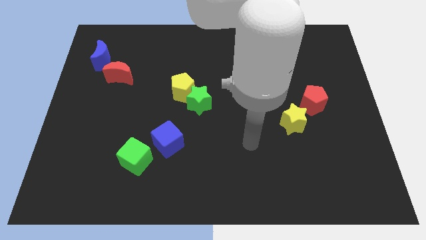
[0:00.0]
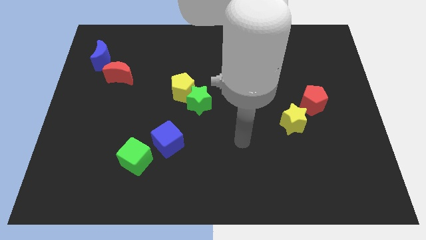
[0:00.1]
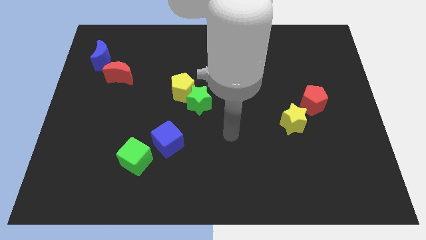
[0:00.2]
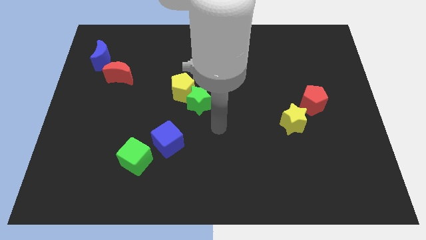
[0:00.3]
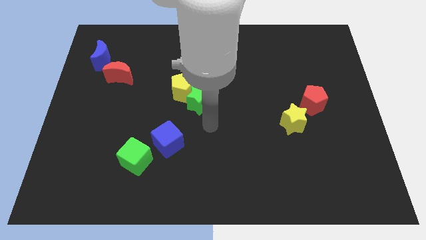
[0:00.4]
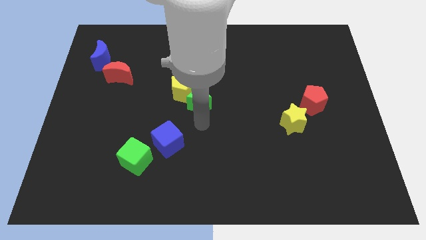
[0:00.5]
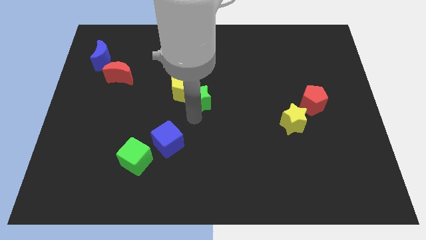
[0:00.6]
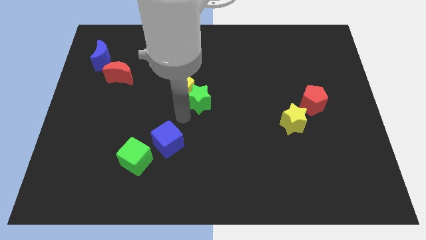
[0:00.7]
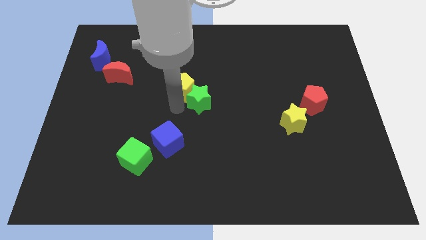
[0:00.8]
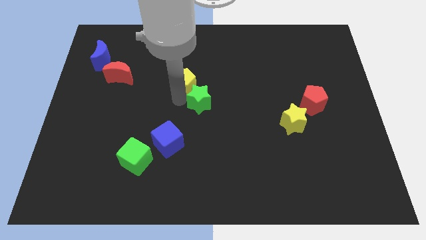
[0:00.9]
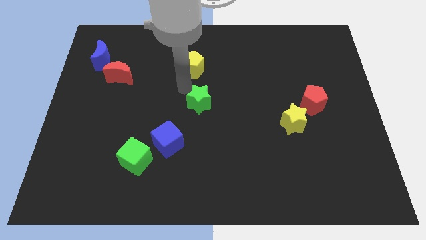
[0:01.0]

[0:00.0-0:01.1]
move the green star away from the yellow pentagon

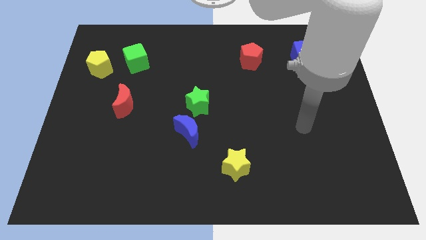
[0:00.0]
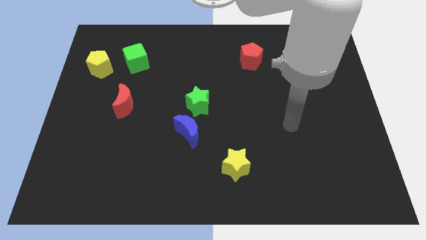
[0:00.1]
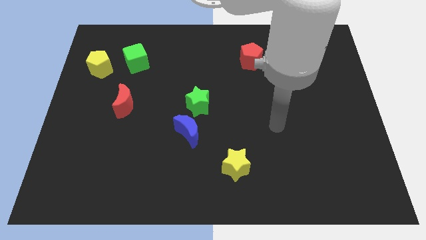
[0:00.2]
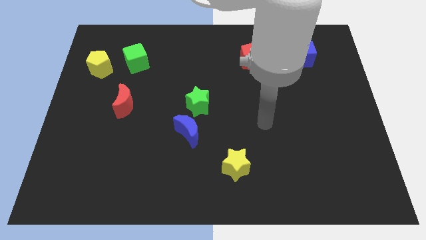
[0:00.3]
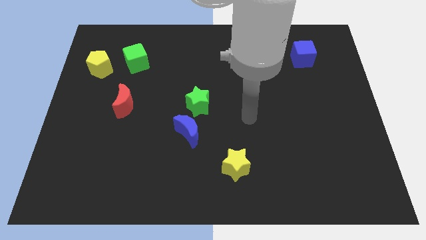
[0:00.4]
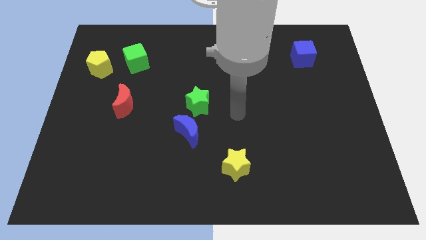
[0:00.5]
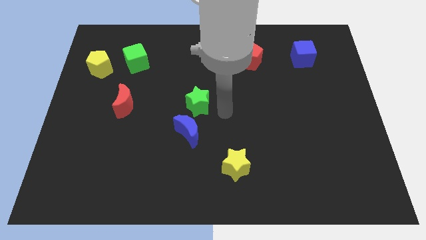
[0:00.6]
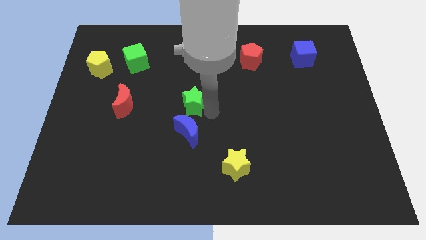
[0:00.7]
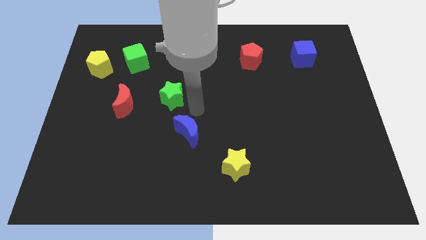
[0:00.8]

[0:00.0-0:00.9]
pull the blue moon apart from the green star

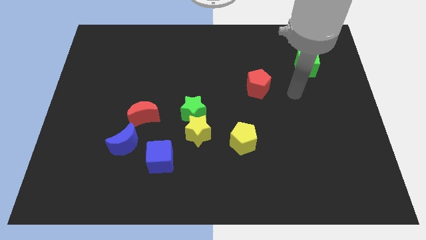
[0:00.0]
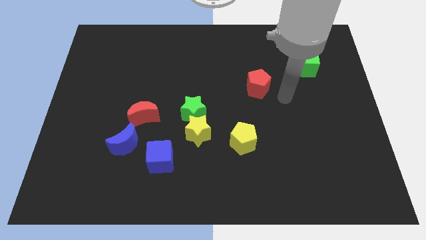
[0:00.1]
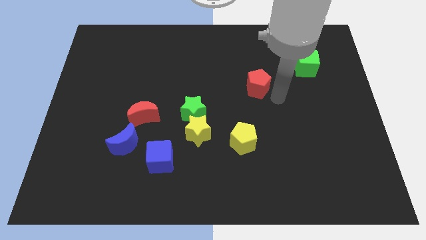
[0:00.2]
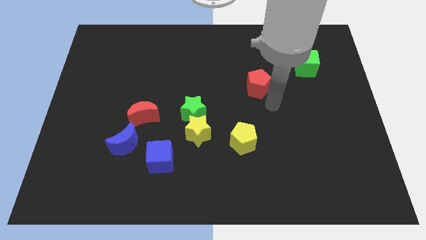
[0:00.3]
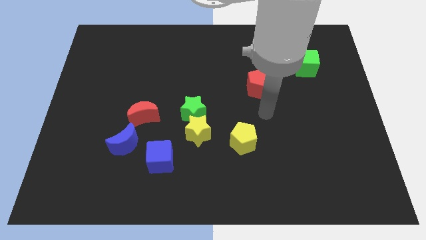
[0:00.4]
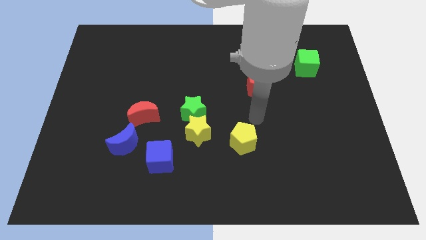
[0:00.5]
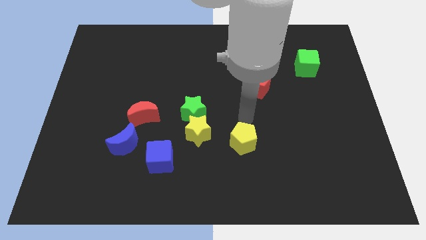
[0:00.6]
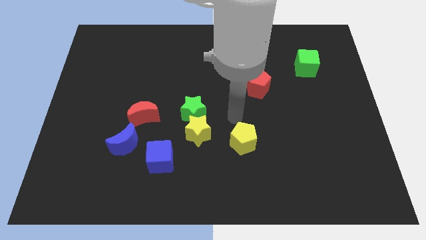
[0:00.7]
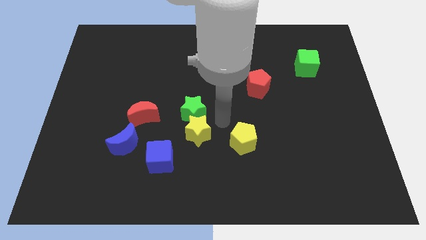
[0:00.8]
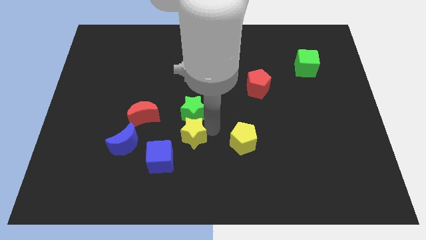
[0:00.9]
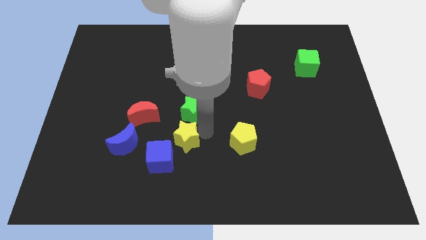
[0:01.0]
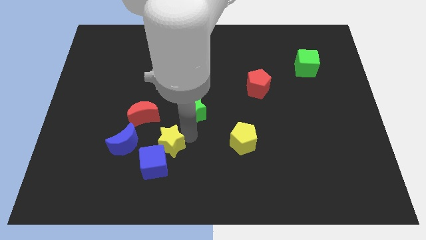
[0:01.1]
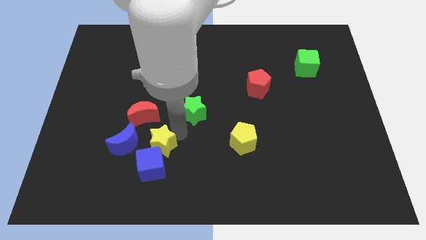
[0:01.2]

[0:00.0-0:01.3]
separate the green star from the yellow star

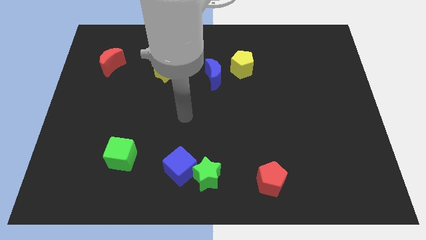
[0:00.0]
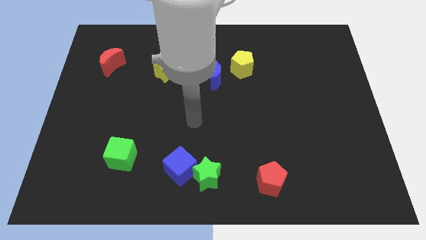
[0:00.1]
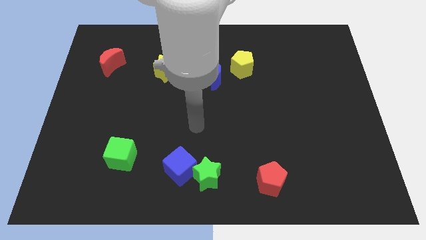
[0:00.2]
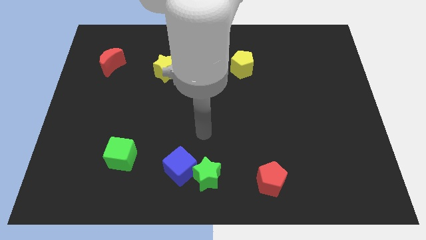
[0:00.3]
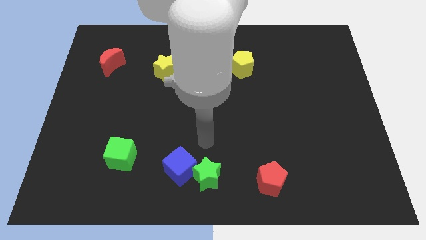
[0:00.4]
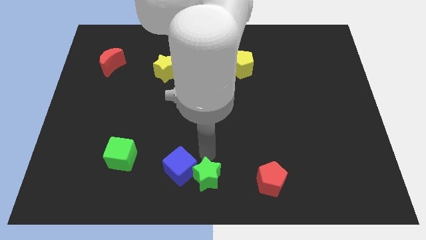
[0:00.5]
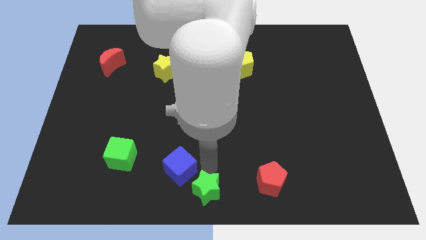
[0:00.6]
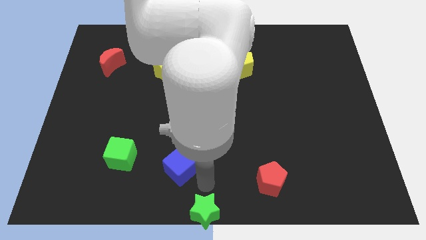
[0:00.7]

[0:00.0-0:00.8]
move the blue cube away from the green star

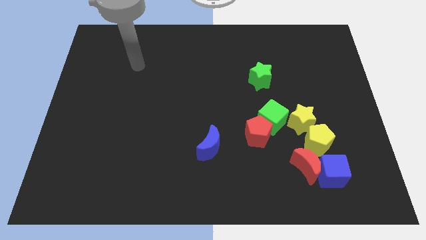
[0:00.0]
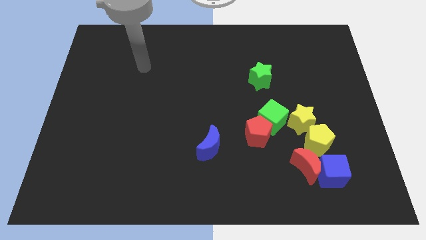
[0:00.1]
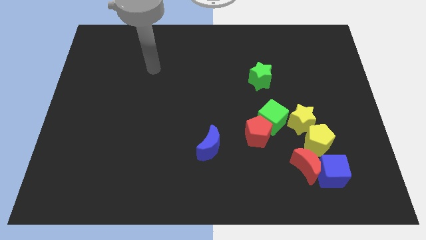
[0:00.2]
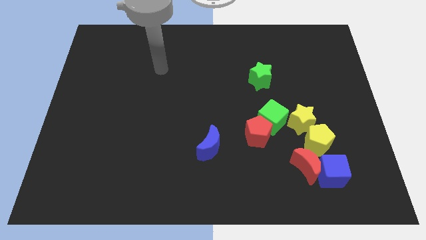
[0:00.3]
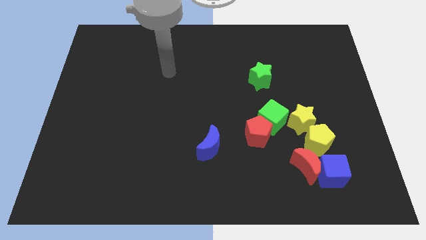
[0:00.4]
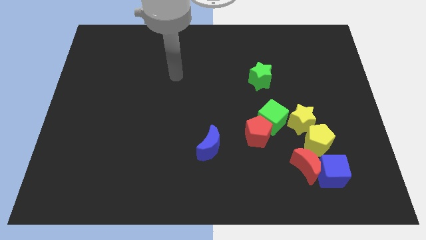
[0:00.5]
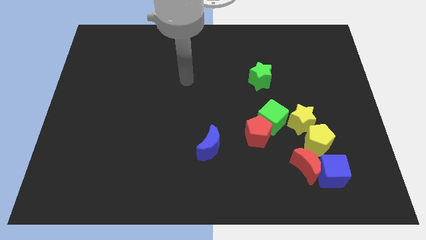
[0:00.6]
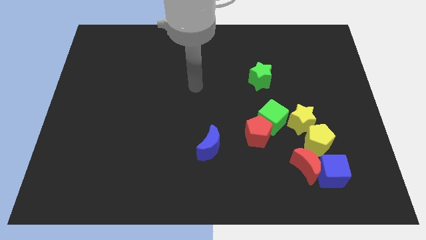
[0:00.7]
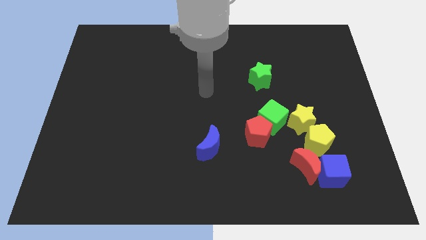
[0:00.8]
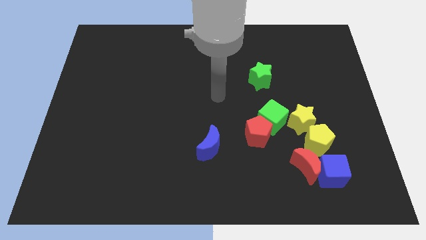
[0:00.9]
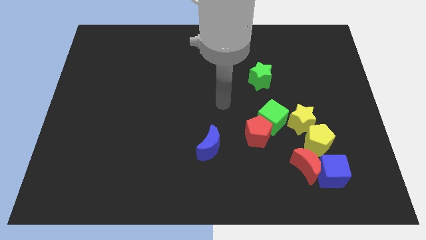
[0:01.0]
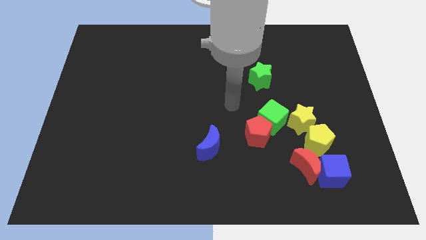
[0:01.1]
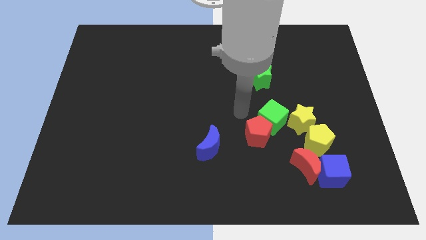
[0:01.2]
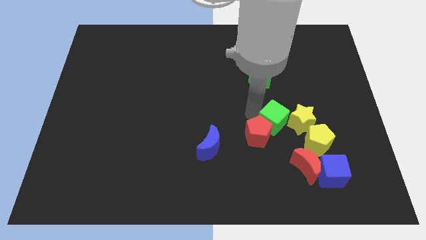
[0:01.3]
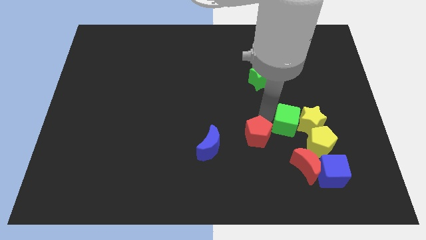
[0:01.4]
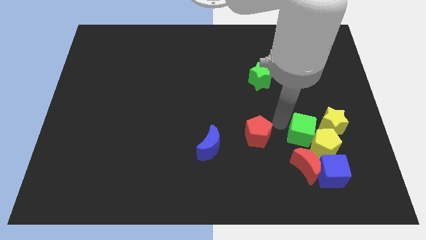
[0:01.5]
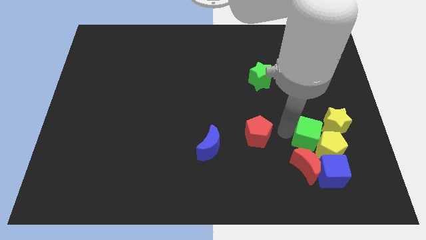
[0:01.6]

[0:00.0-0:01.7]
separate the red pentagon from the green cube

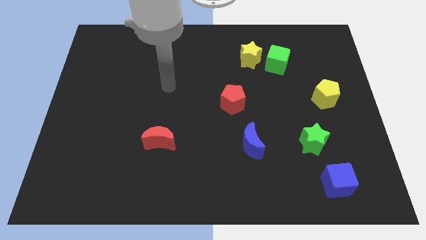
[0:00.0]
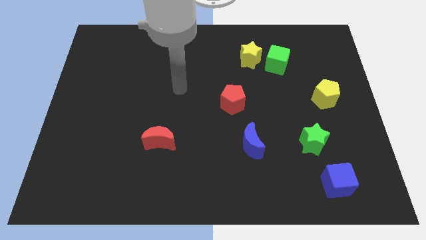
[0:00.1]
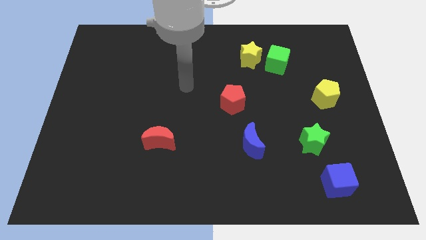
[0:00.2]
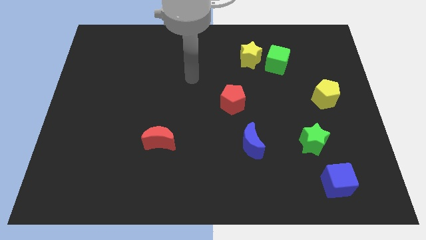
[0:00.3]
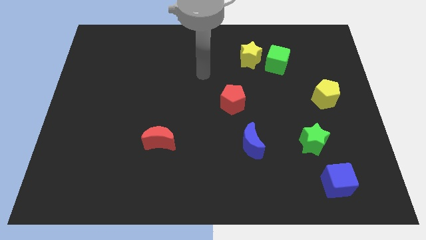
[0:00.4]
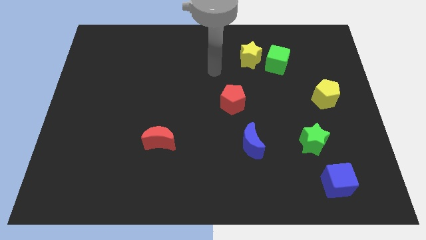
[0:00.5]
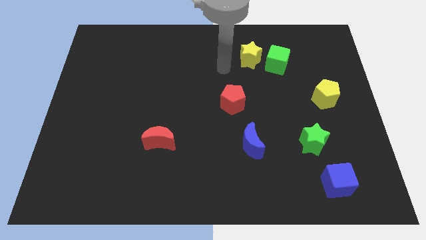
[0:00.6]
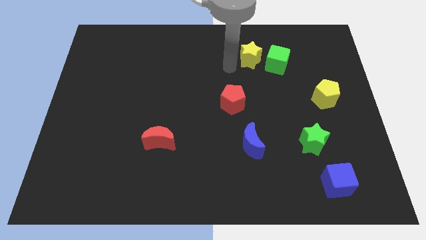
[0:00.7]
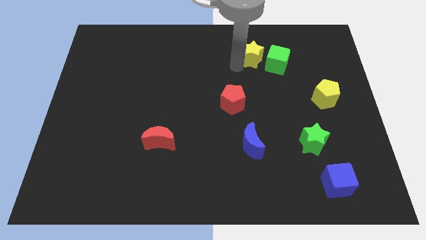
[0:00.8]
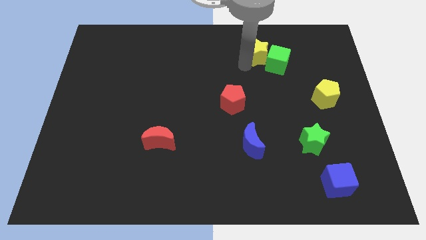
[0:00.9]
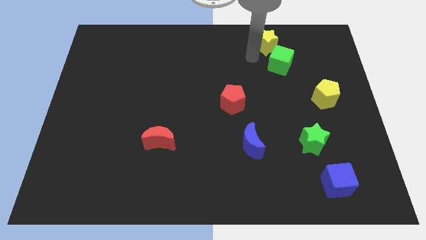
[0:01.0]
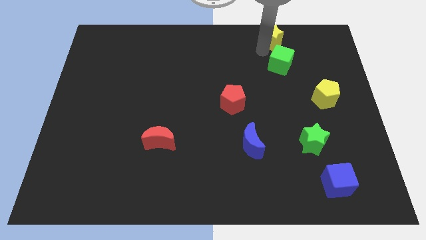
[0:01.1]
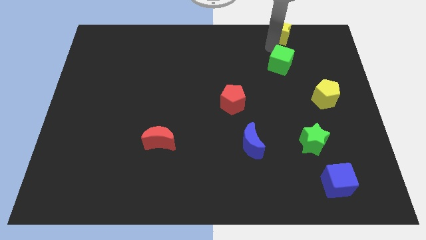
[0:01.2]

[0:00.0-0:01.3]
pull the green cube apart from the yellow star

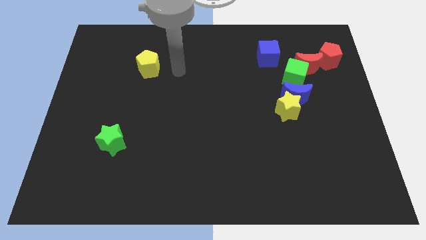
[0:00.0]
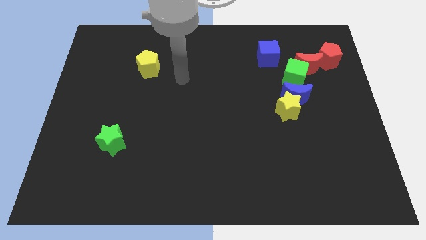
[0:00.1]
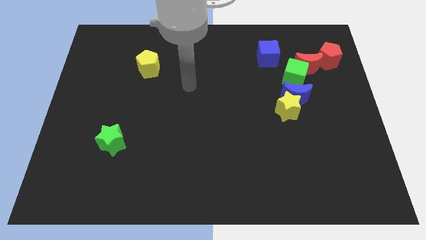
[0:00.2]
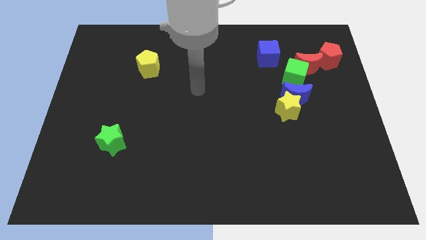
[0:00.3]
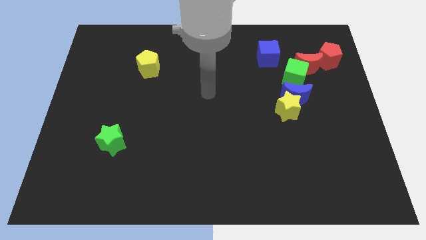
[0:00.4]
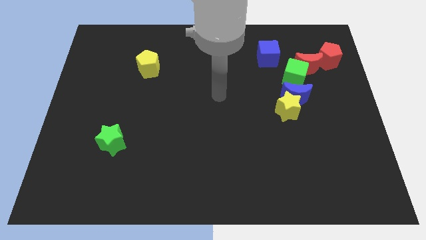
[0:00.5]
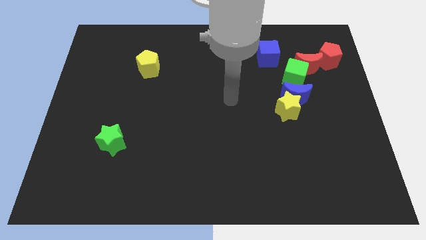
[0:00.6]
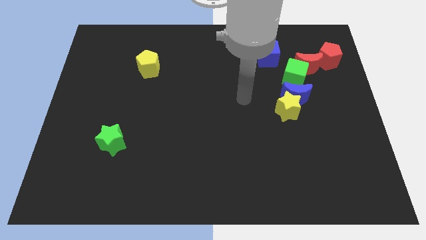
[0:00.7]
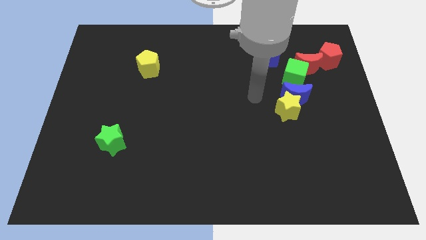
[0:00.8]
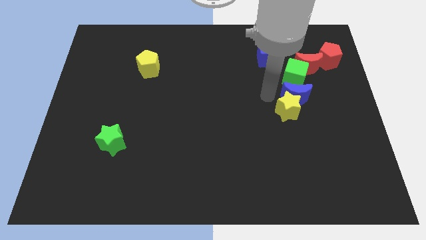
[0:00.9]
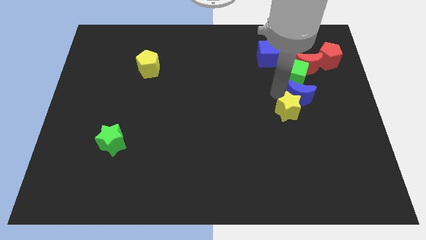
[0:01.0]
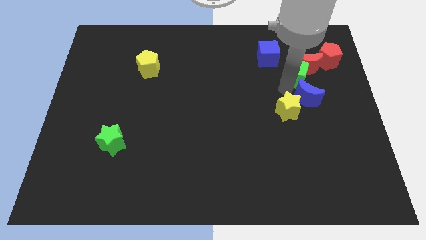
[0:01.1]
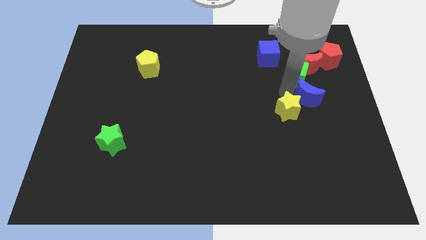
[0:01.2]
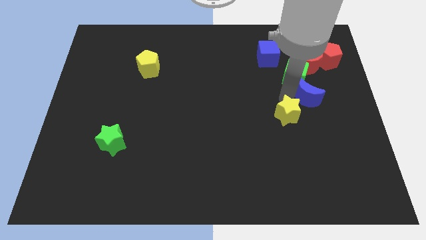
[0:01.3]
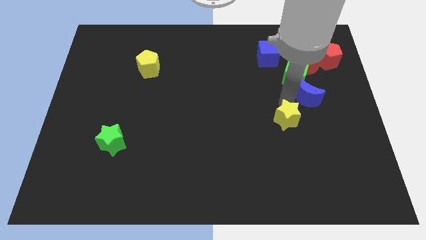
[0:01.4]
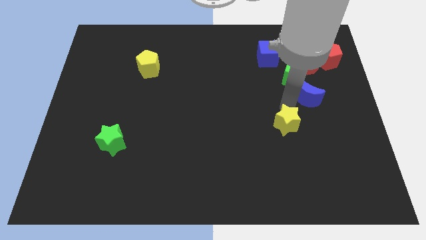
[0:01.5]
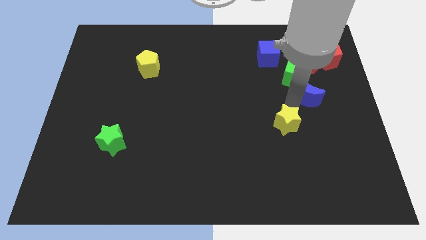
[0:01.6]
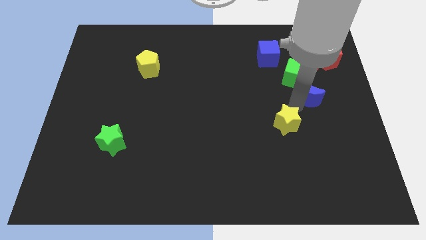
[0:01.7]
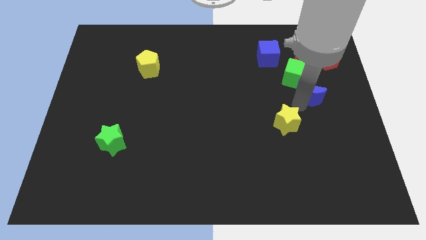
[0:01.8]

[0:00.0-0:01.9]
move the yellow star away from the blue moon

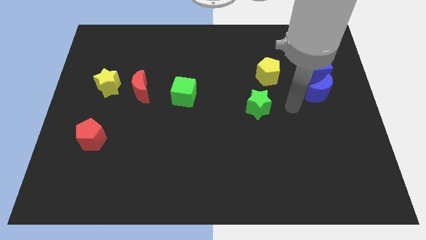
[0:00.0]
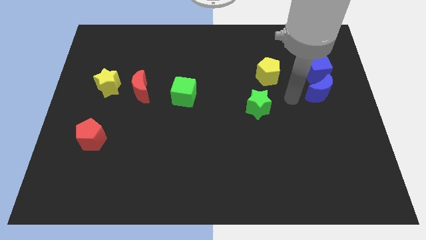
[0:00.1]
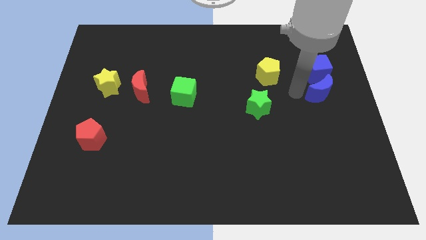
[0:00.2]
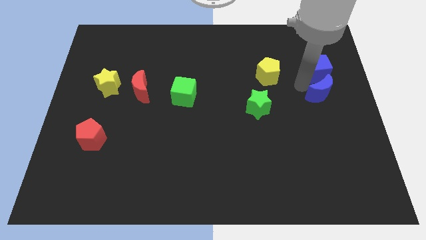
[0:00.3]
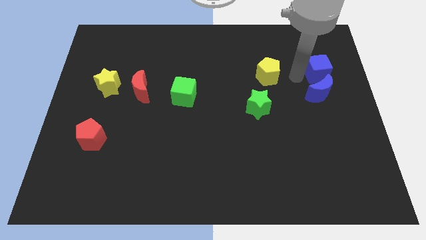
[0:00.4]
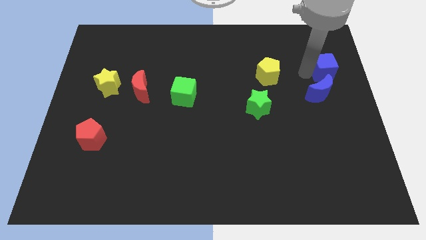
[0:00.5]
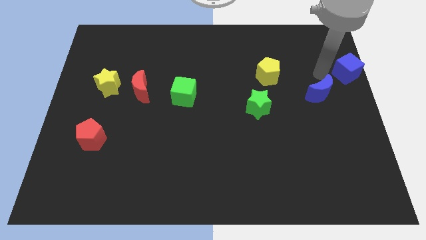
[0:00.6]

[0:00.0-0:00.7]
separate the blue moon from the blue cube
